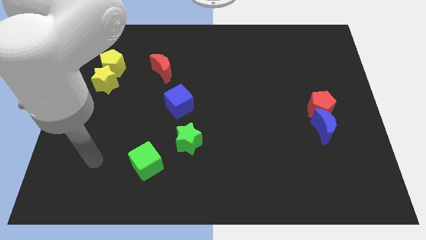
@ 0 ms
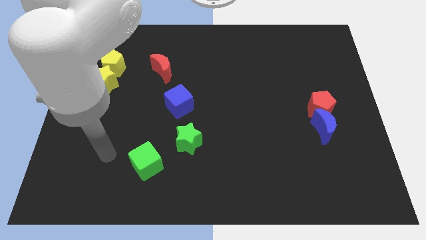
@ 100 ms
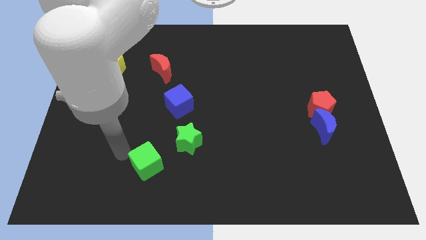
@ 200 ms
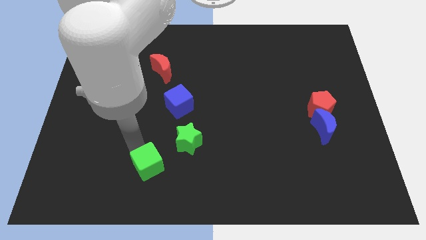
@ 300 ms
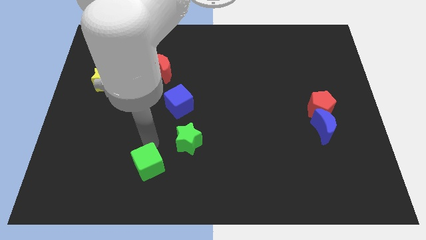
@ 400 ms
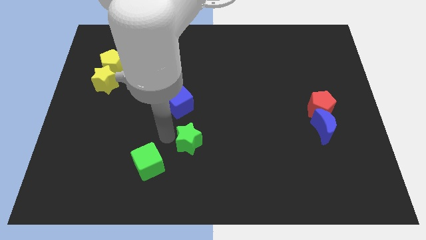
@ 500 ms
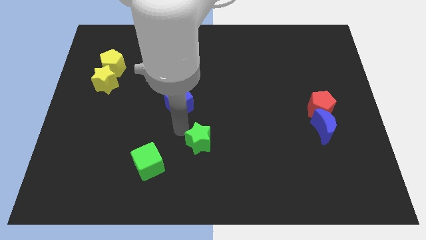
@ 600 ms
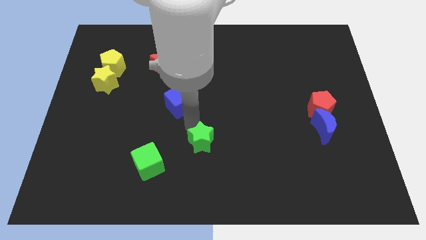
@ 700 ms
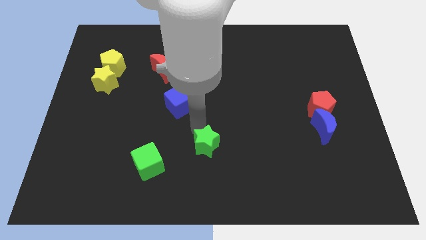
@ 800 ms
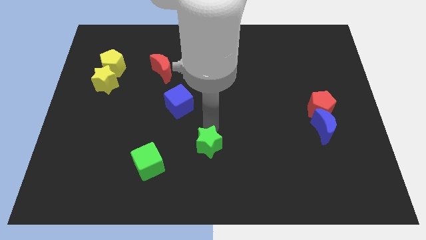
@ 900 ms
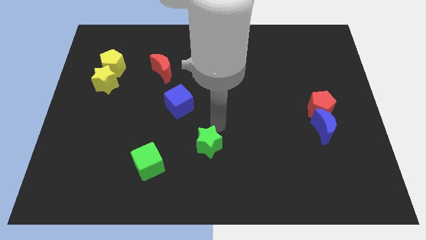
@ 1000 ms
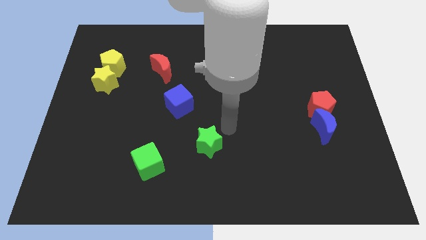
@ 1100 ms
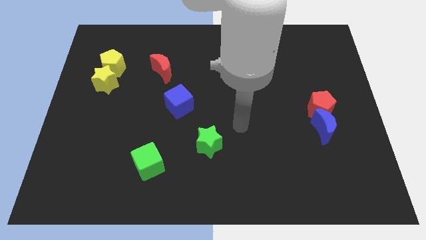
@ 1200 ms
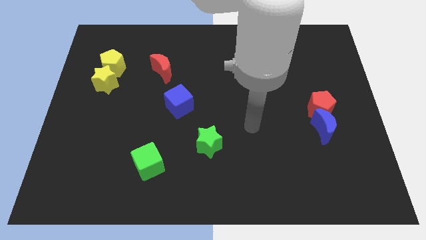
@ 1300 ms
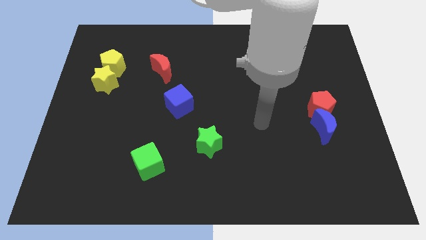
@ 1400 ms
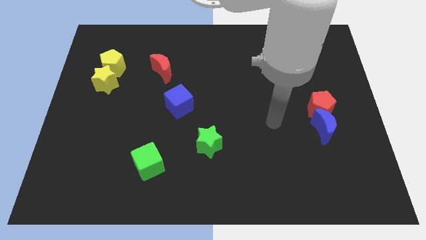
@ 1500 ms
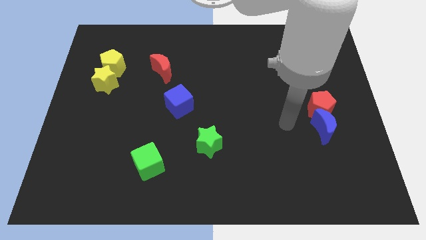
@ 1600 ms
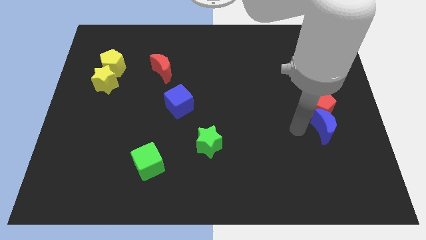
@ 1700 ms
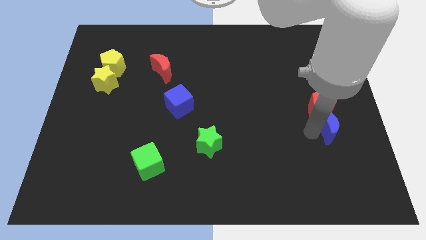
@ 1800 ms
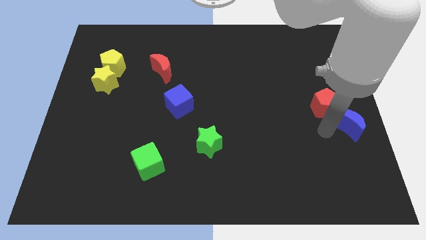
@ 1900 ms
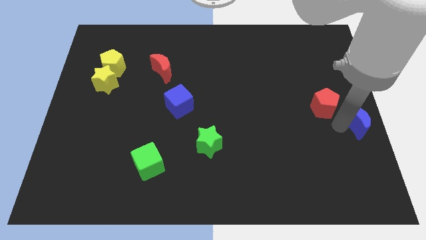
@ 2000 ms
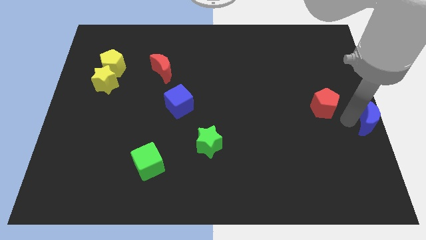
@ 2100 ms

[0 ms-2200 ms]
separate the red pentagon from the blue moon

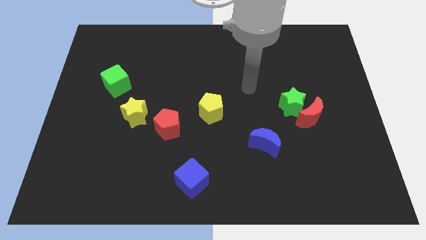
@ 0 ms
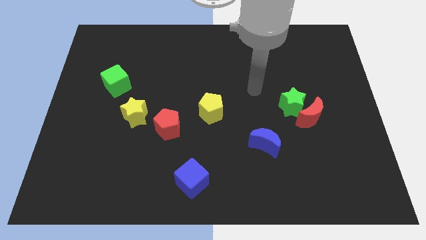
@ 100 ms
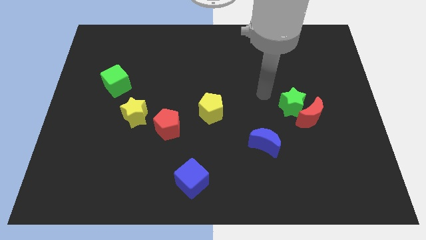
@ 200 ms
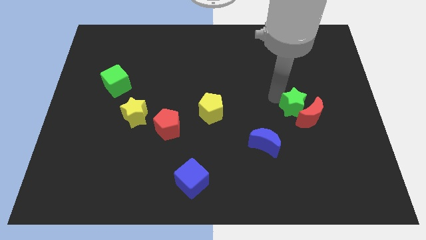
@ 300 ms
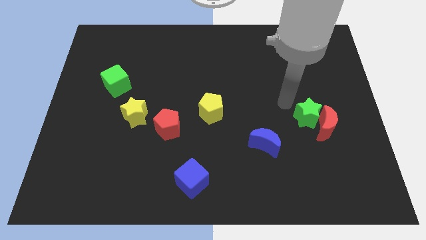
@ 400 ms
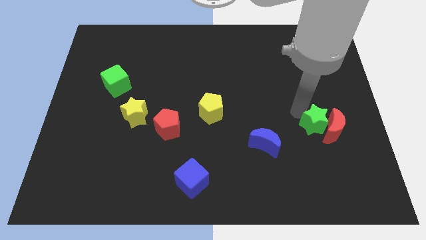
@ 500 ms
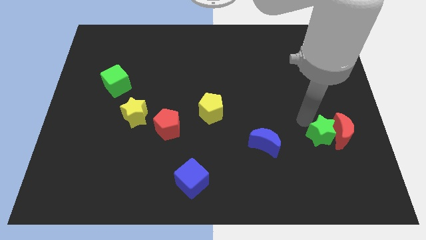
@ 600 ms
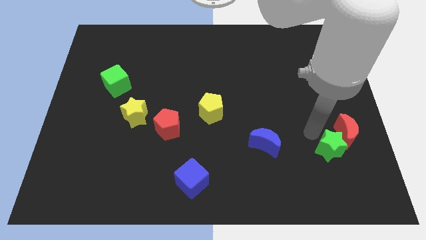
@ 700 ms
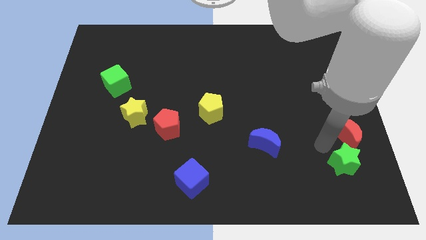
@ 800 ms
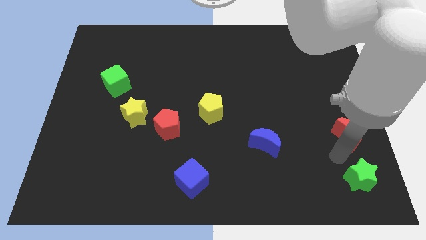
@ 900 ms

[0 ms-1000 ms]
move the red moon away from the green star

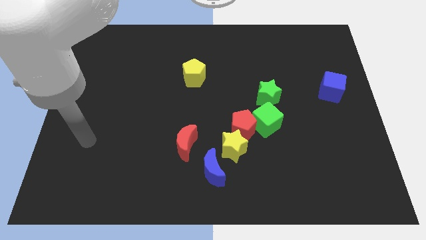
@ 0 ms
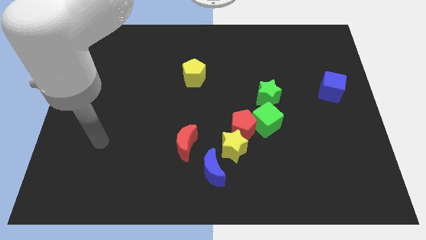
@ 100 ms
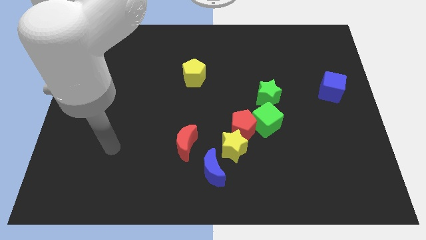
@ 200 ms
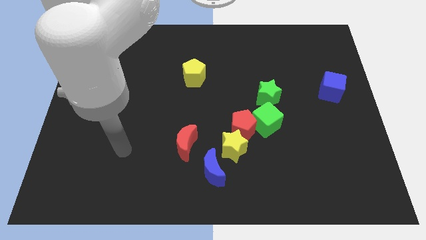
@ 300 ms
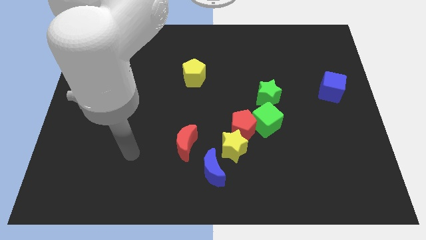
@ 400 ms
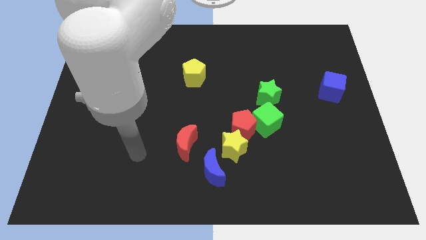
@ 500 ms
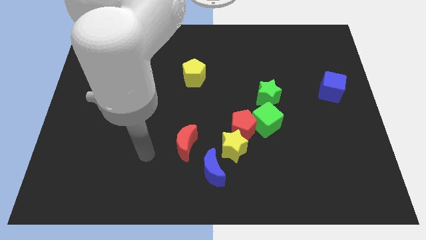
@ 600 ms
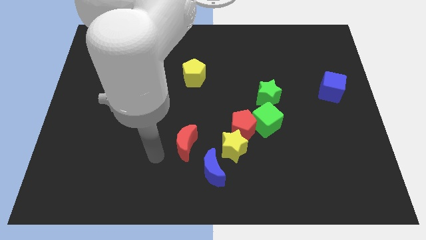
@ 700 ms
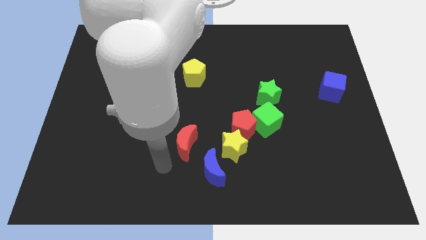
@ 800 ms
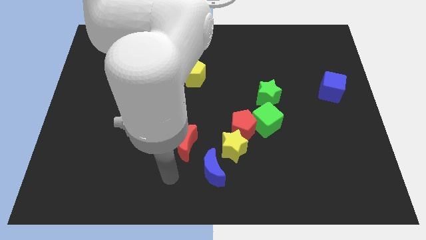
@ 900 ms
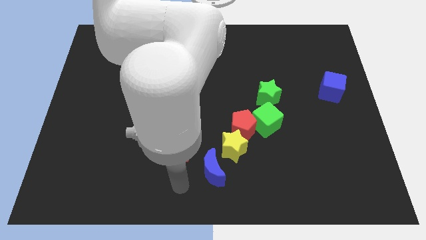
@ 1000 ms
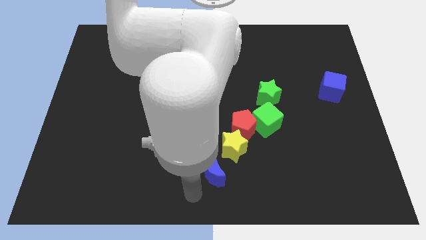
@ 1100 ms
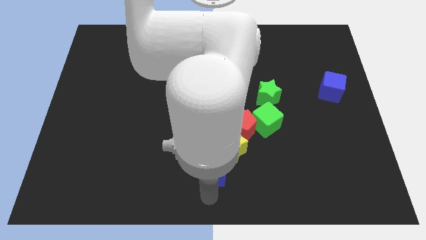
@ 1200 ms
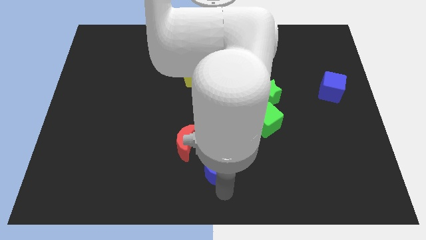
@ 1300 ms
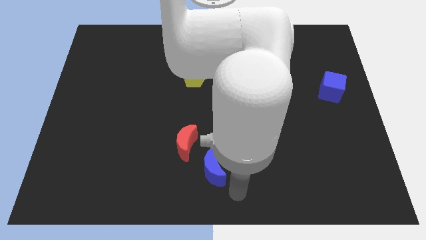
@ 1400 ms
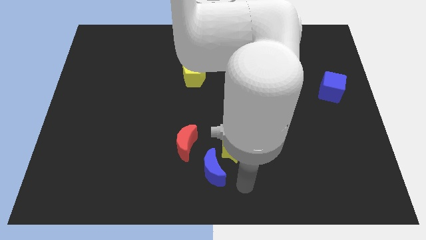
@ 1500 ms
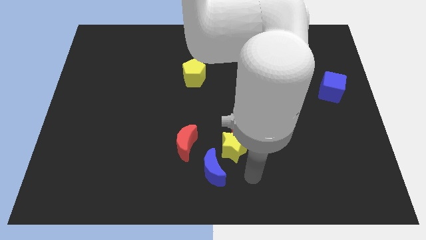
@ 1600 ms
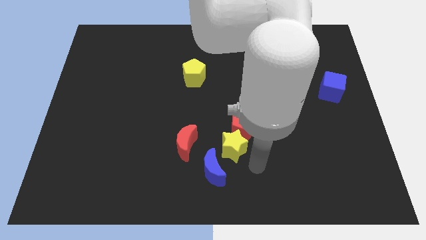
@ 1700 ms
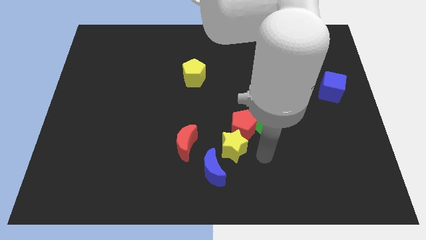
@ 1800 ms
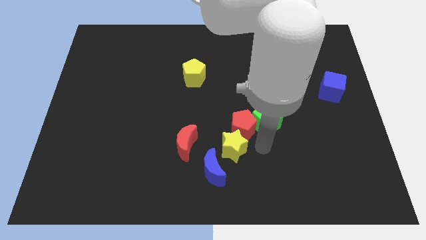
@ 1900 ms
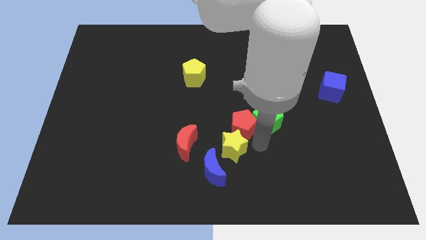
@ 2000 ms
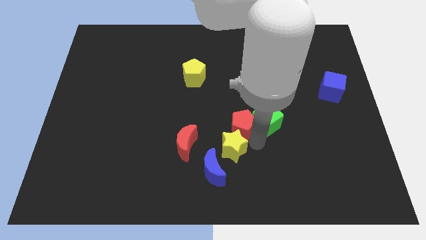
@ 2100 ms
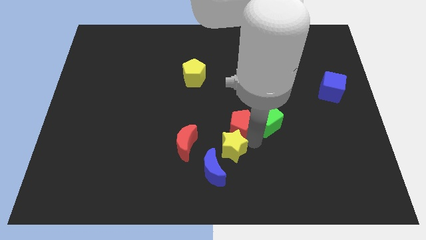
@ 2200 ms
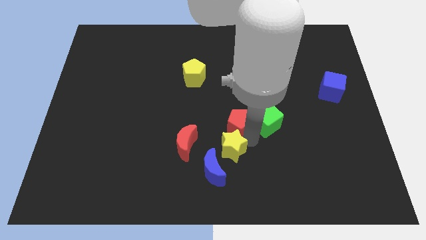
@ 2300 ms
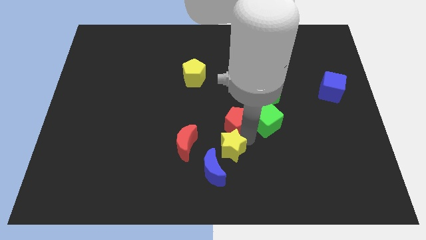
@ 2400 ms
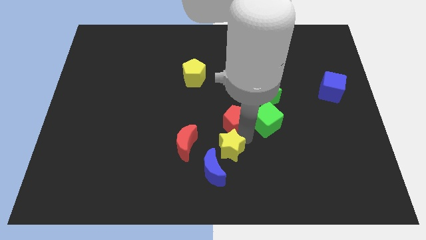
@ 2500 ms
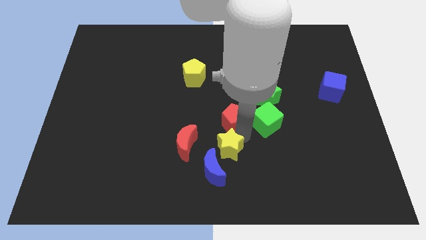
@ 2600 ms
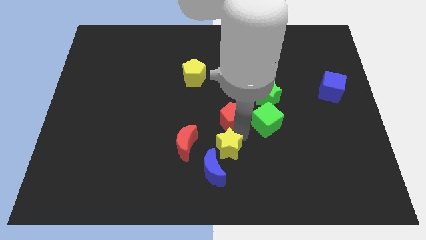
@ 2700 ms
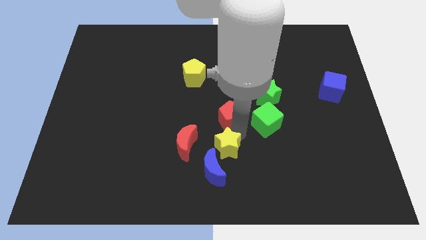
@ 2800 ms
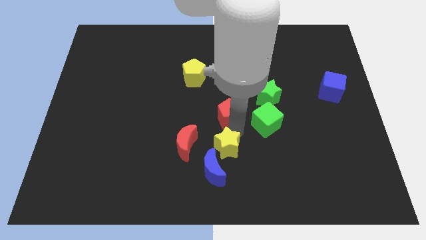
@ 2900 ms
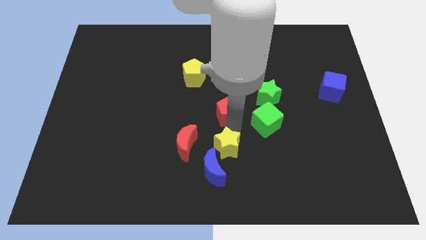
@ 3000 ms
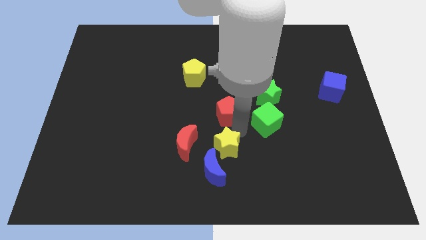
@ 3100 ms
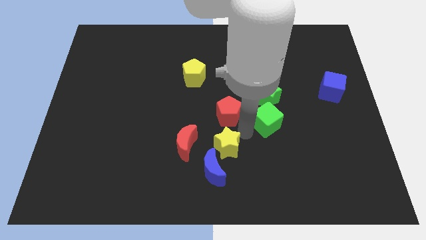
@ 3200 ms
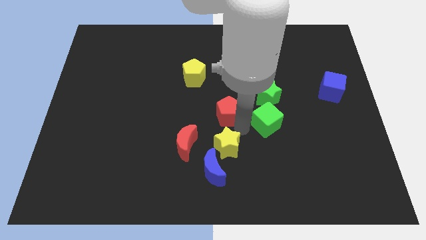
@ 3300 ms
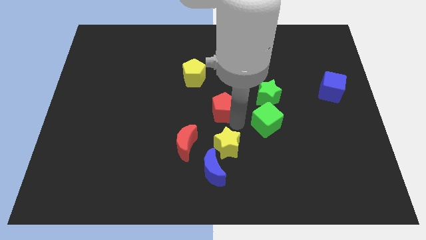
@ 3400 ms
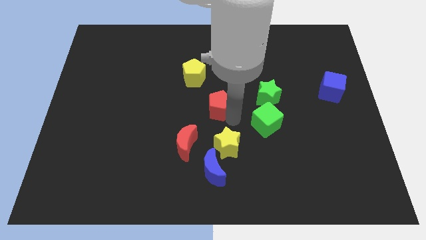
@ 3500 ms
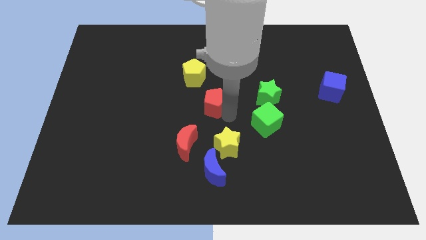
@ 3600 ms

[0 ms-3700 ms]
separate the red pentagon from the yellow star and green cube

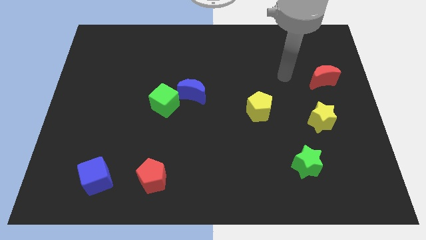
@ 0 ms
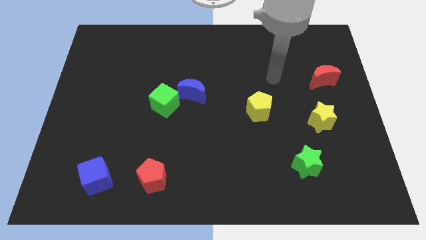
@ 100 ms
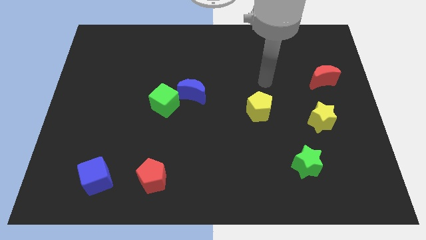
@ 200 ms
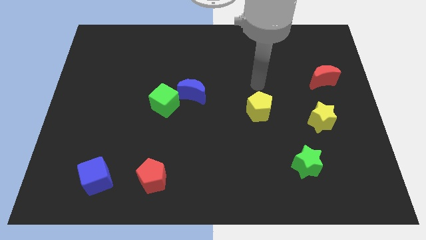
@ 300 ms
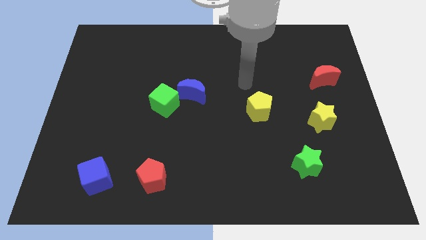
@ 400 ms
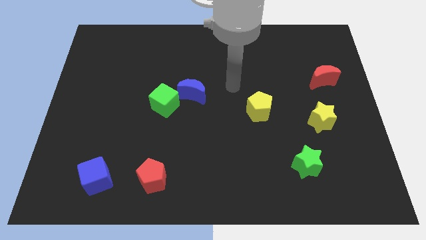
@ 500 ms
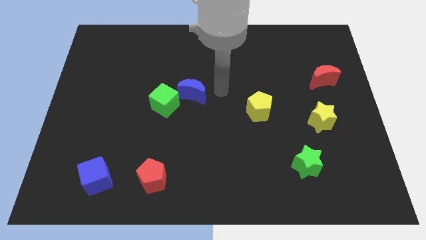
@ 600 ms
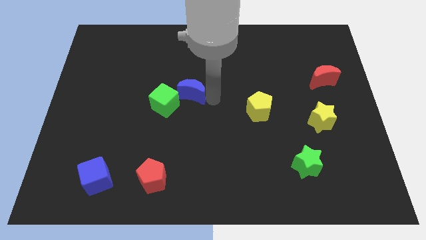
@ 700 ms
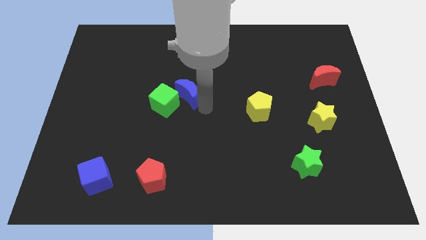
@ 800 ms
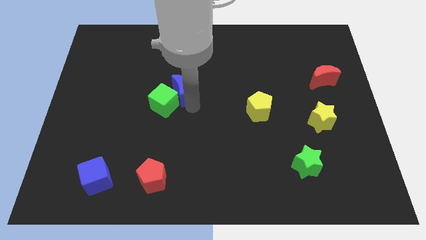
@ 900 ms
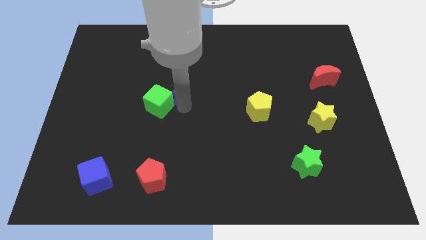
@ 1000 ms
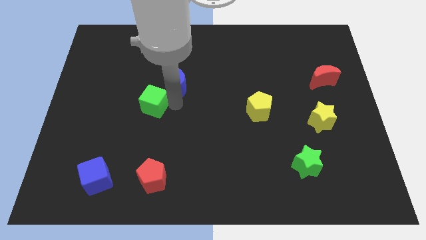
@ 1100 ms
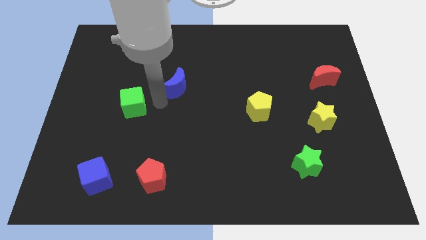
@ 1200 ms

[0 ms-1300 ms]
separate the blue moon from the green cube

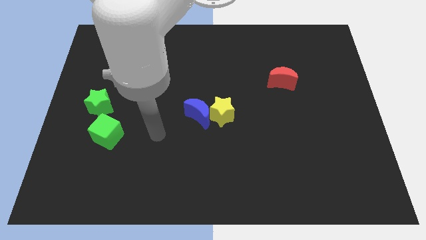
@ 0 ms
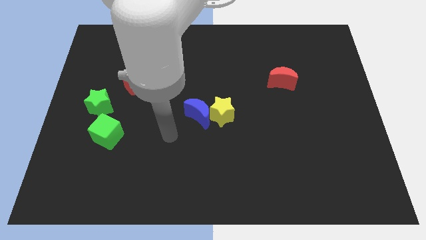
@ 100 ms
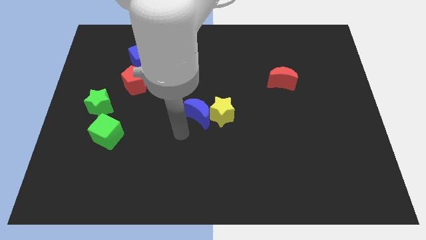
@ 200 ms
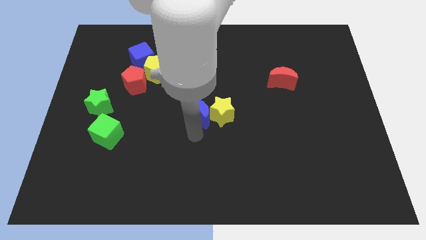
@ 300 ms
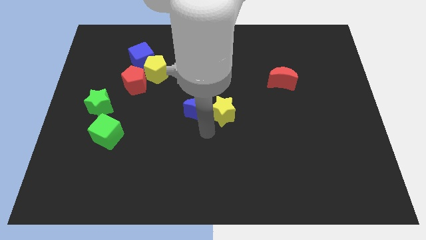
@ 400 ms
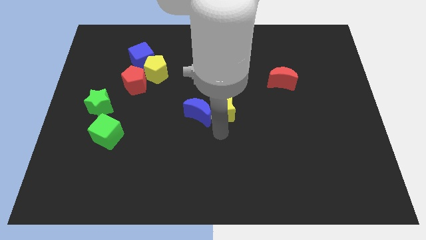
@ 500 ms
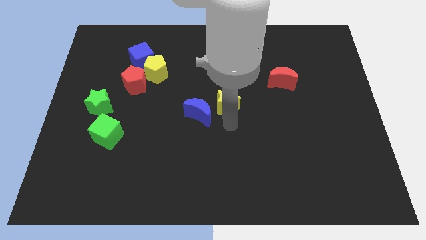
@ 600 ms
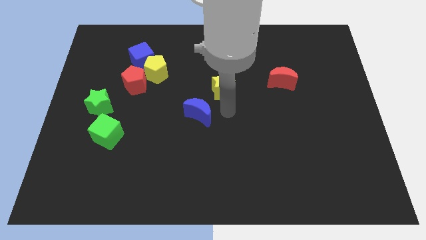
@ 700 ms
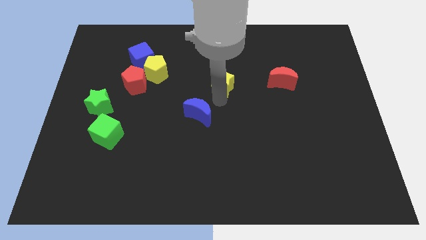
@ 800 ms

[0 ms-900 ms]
separate the blue moon from the yellow star

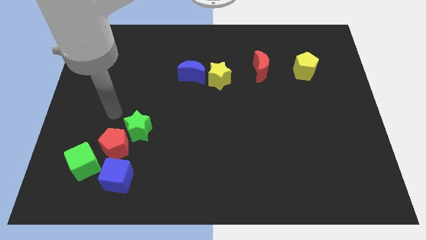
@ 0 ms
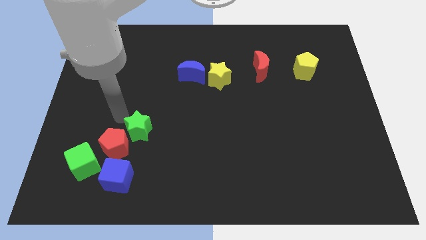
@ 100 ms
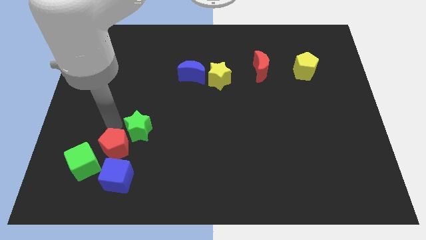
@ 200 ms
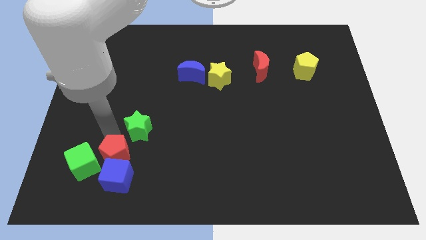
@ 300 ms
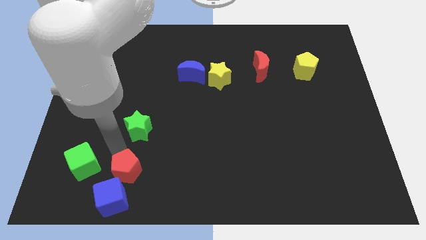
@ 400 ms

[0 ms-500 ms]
separate the green star from the red pentagon
